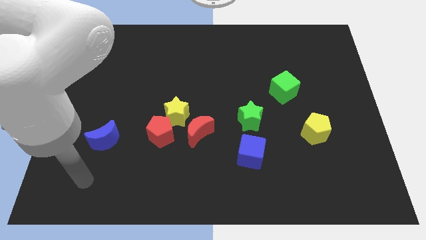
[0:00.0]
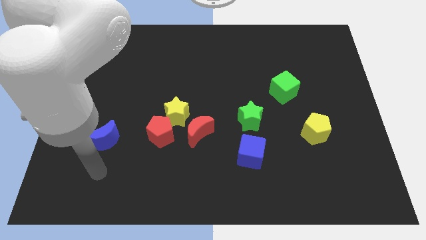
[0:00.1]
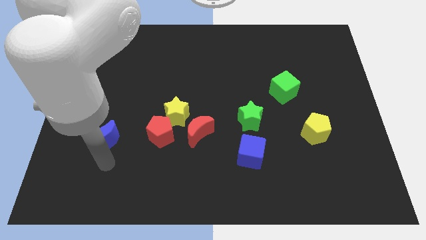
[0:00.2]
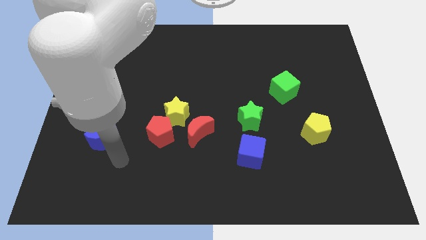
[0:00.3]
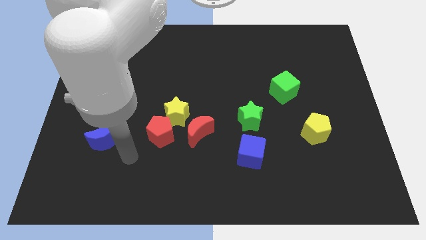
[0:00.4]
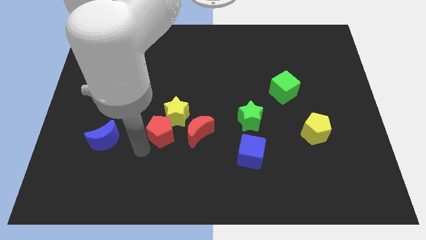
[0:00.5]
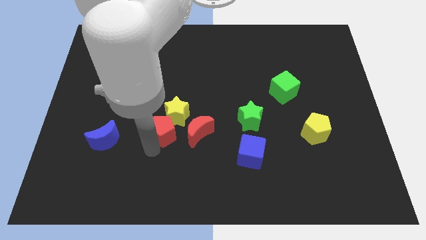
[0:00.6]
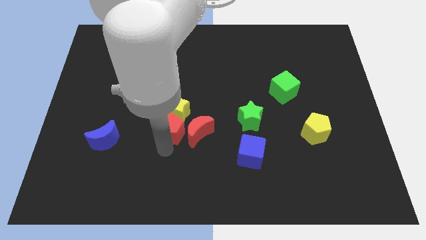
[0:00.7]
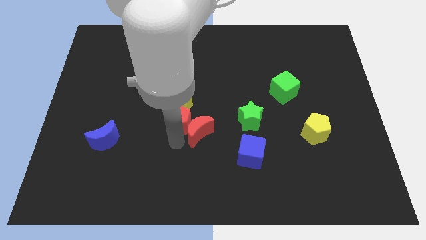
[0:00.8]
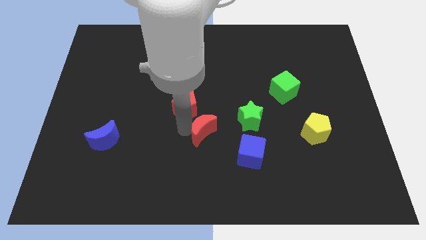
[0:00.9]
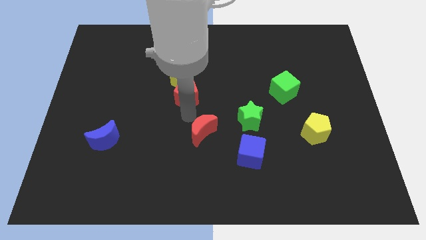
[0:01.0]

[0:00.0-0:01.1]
pull the yellow star apart from the red pentagon and red moon

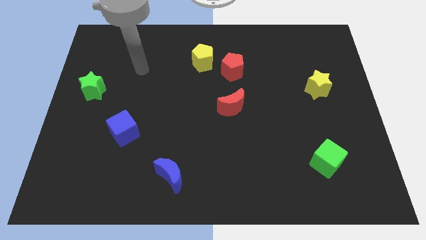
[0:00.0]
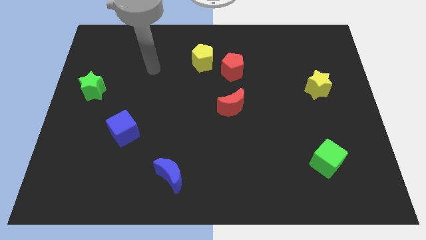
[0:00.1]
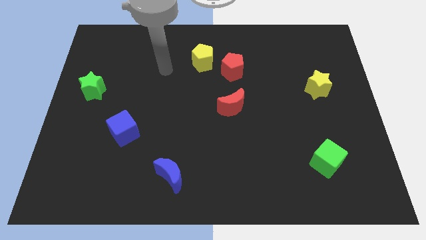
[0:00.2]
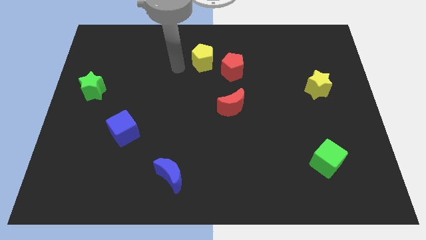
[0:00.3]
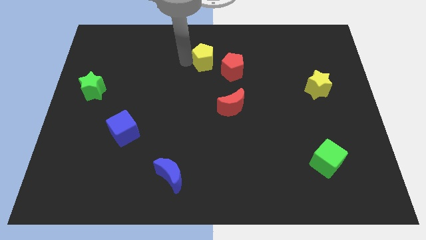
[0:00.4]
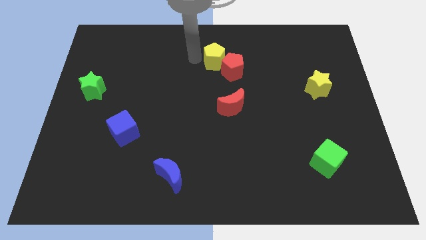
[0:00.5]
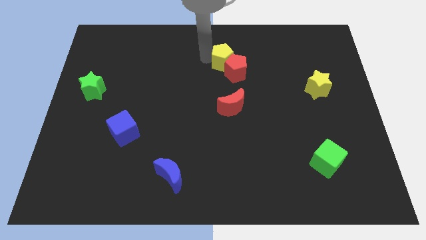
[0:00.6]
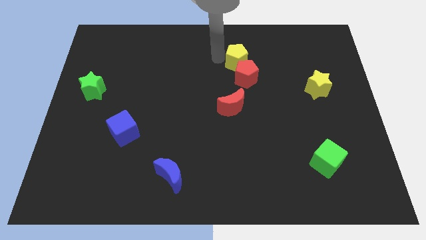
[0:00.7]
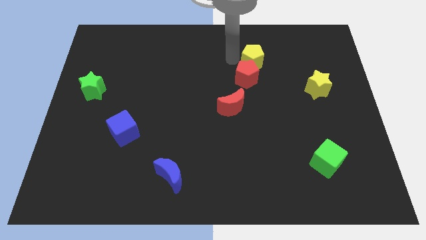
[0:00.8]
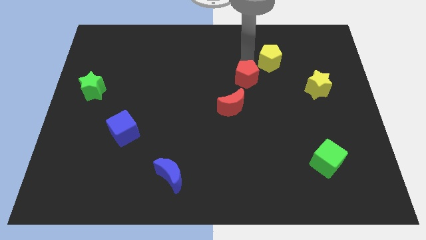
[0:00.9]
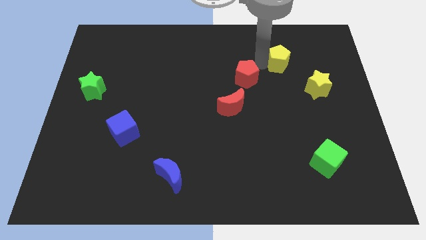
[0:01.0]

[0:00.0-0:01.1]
pull the red pentagon apart from the yellow pentagon

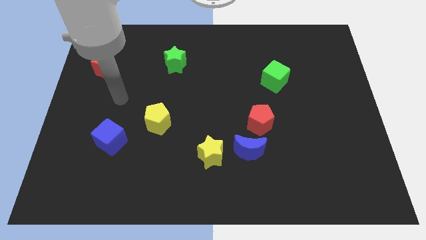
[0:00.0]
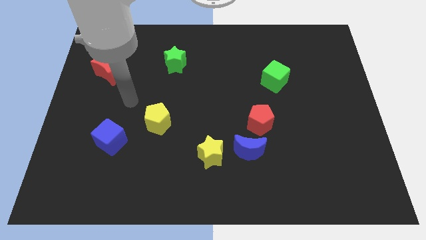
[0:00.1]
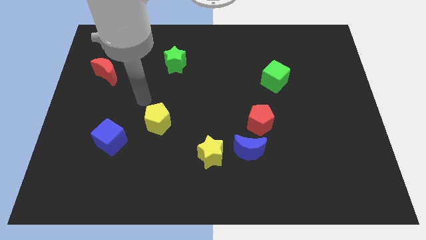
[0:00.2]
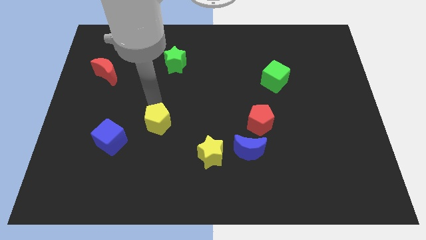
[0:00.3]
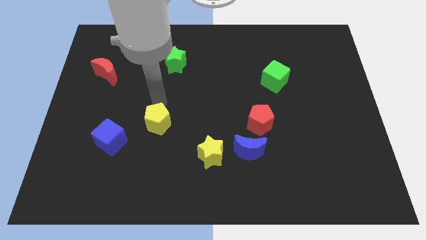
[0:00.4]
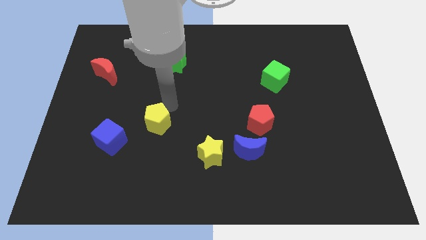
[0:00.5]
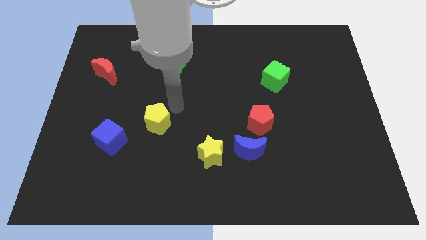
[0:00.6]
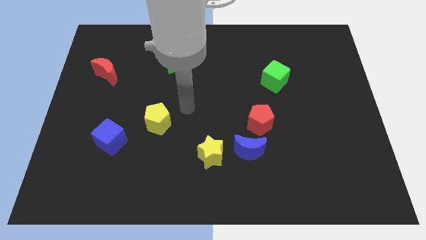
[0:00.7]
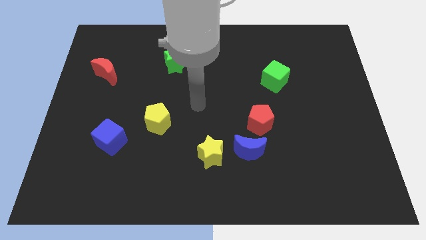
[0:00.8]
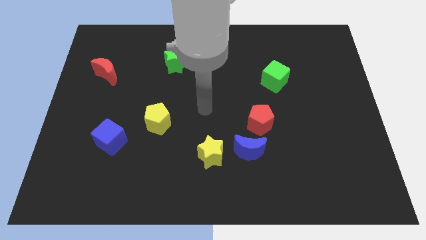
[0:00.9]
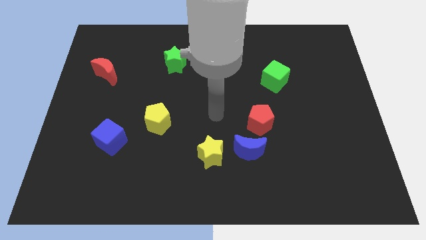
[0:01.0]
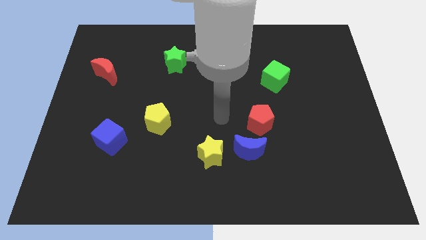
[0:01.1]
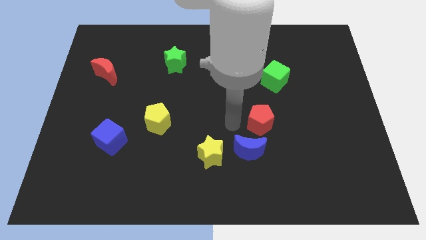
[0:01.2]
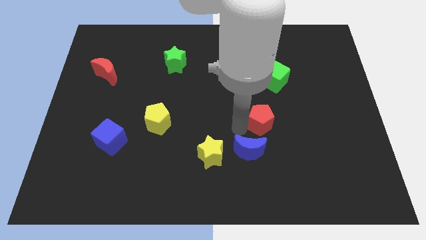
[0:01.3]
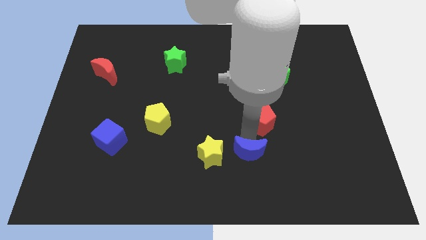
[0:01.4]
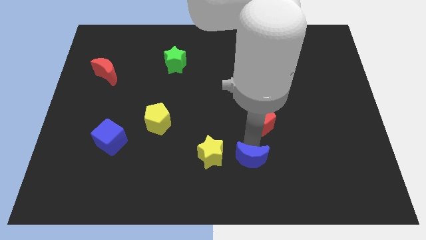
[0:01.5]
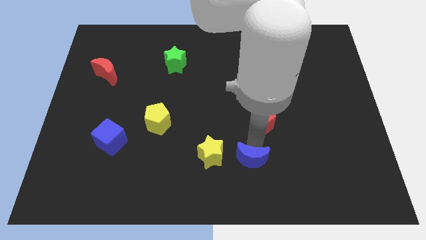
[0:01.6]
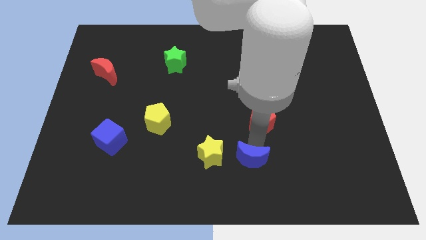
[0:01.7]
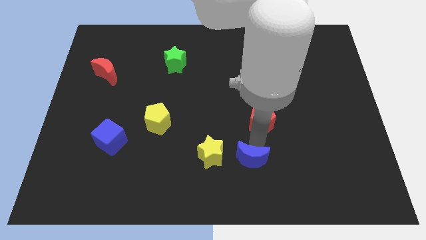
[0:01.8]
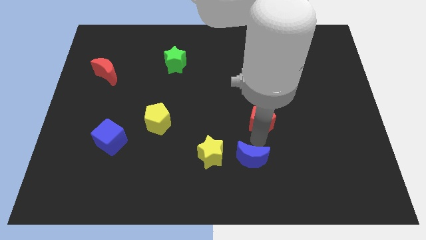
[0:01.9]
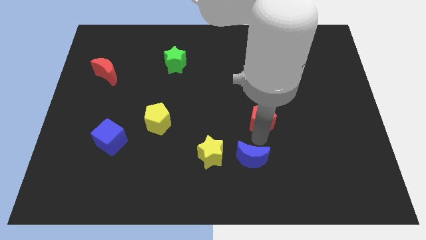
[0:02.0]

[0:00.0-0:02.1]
separate the red pentagon from the blue moon

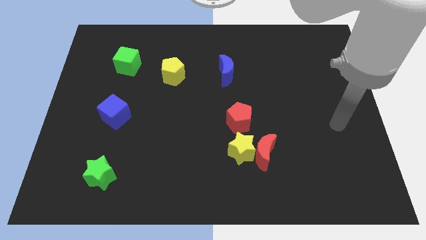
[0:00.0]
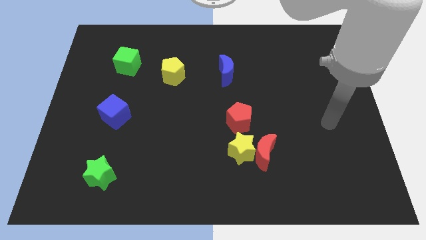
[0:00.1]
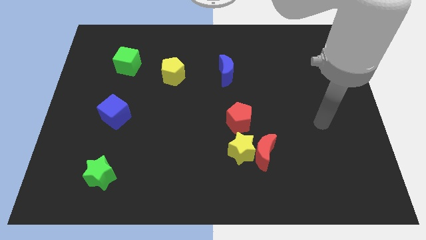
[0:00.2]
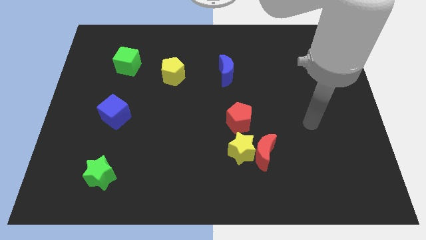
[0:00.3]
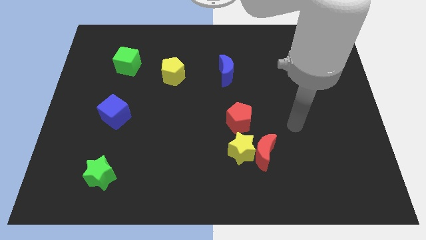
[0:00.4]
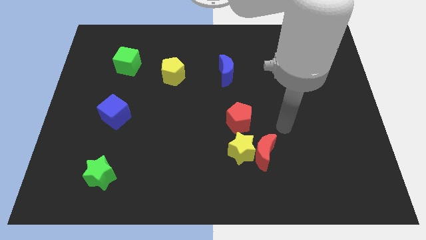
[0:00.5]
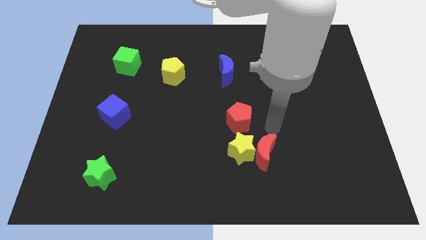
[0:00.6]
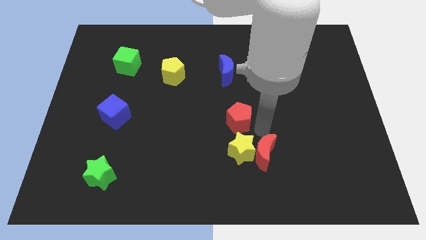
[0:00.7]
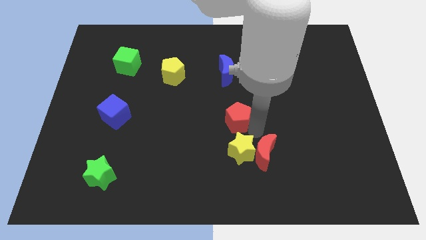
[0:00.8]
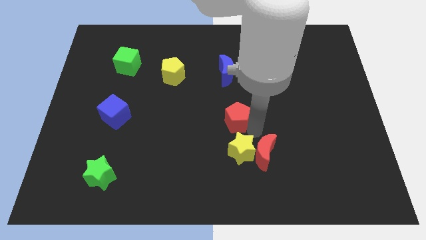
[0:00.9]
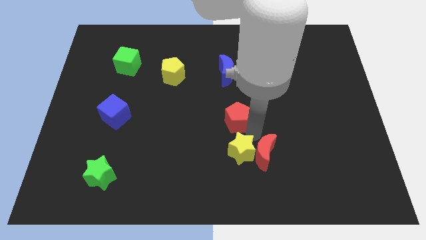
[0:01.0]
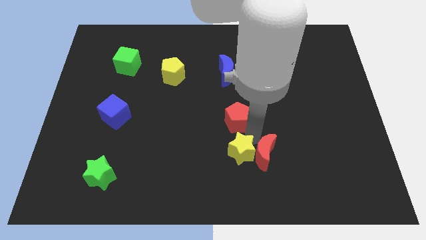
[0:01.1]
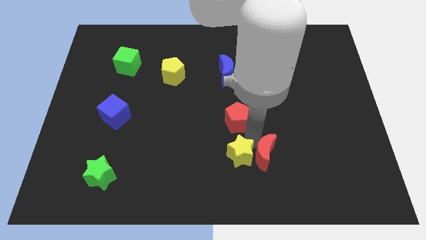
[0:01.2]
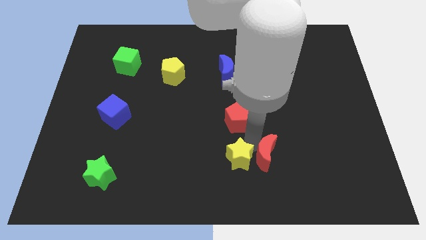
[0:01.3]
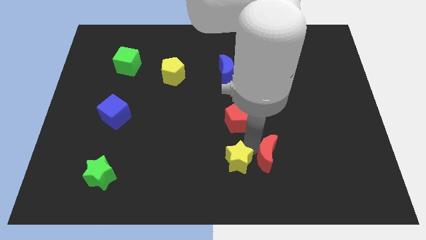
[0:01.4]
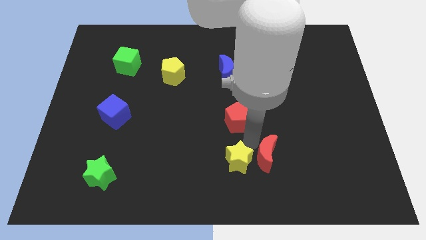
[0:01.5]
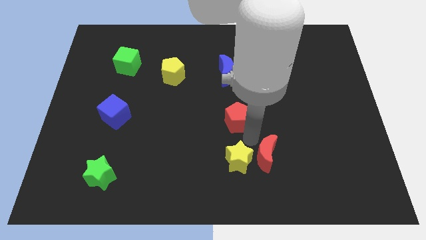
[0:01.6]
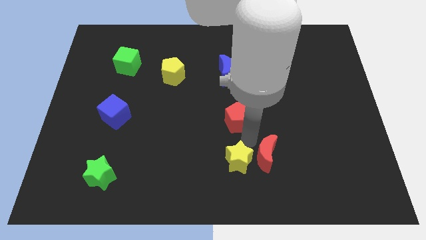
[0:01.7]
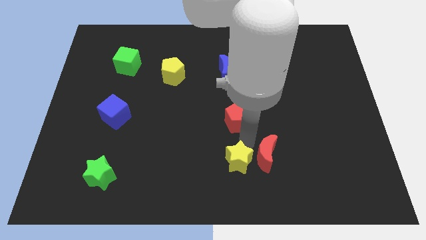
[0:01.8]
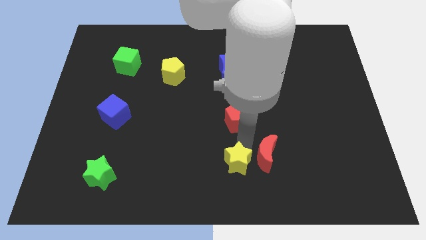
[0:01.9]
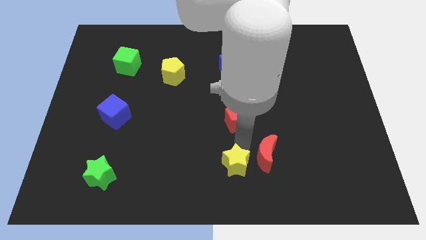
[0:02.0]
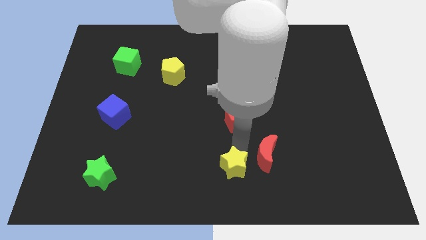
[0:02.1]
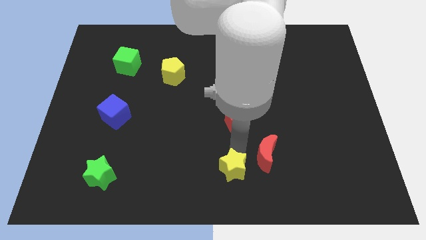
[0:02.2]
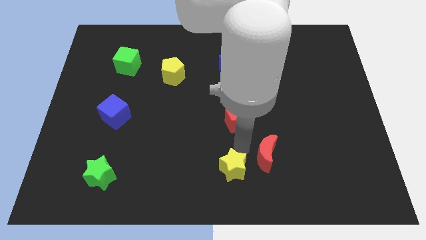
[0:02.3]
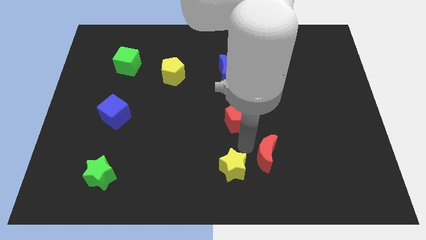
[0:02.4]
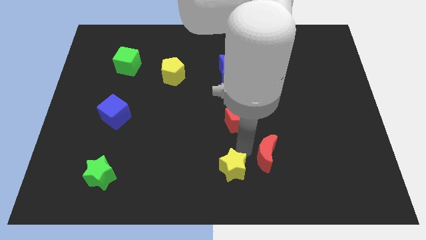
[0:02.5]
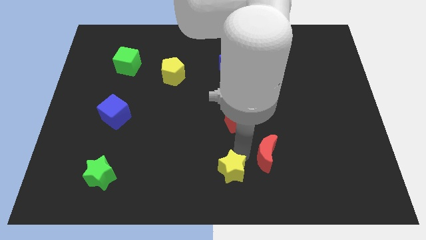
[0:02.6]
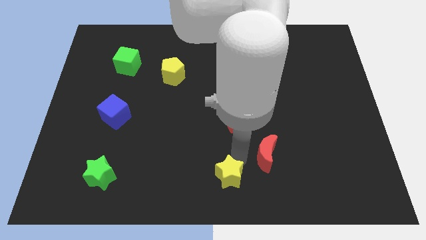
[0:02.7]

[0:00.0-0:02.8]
separate the yellow star from the red moon and red pentagon

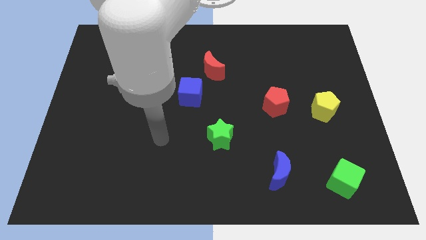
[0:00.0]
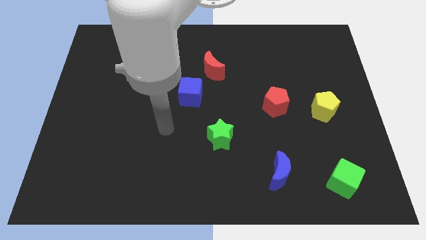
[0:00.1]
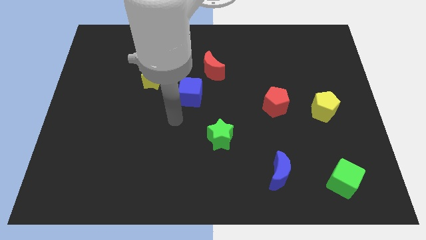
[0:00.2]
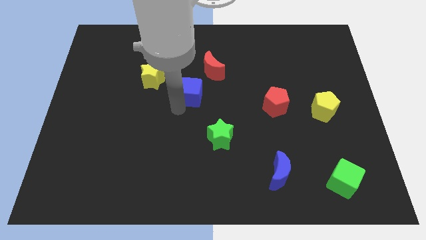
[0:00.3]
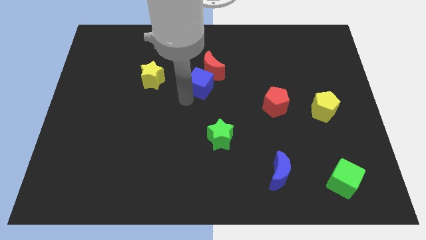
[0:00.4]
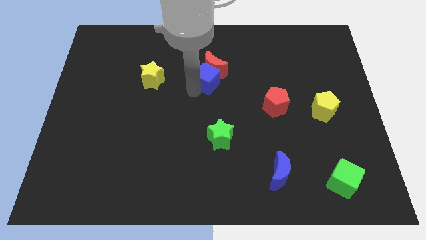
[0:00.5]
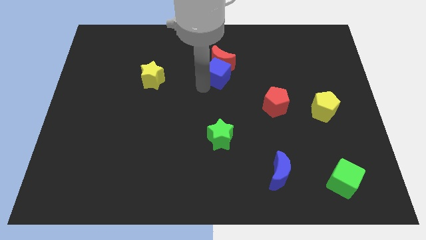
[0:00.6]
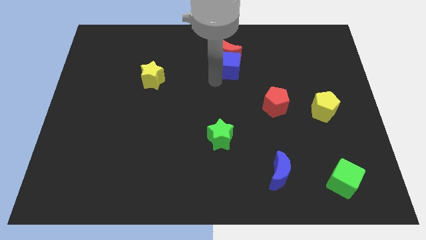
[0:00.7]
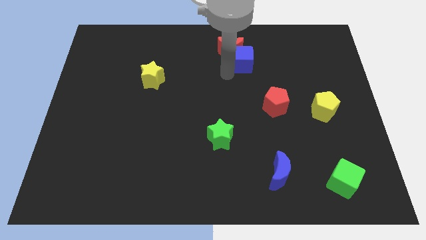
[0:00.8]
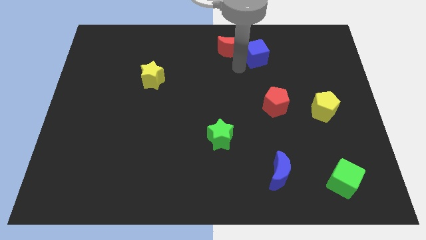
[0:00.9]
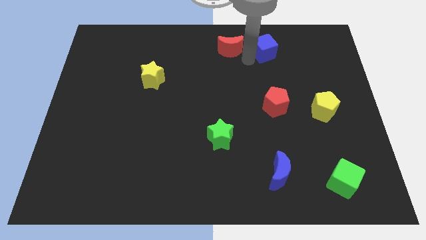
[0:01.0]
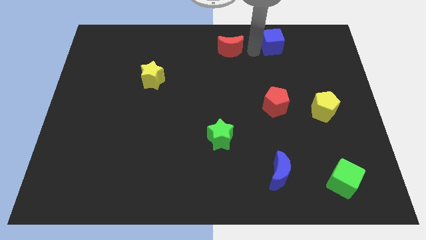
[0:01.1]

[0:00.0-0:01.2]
separate the red moon from the blue cube

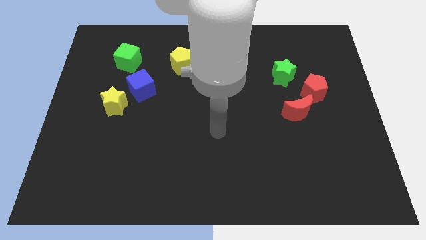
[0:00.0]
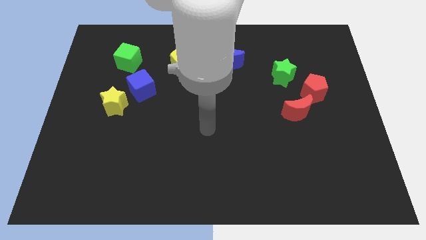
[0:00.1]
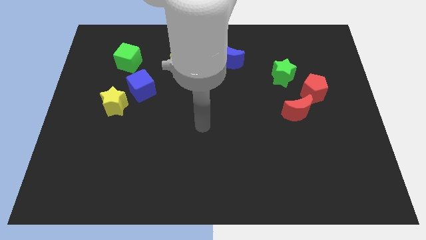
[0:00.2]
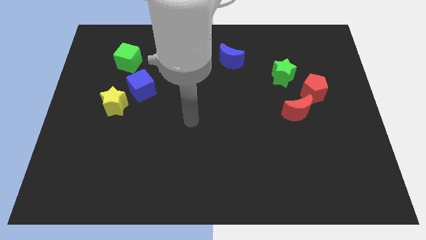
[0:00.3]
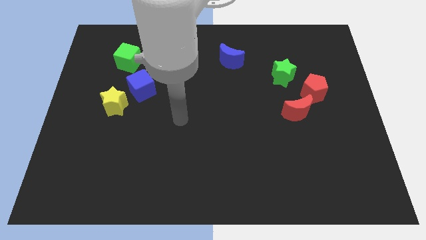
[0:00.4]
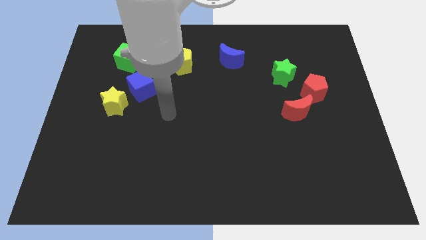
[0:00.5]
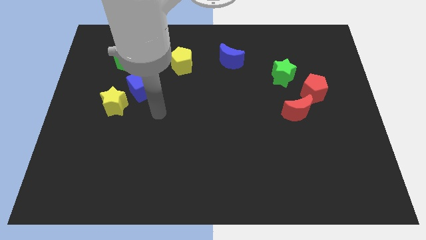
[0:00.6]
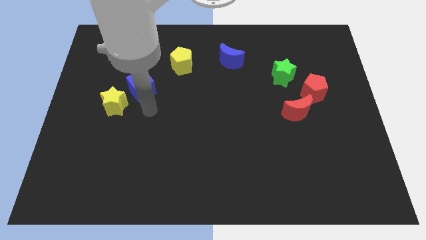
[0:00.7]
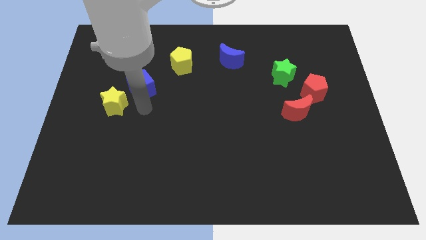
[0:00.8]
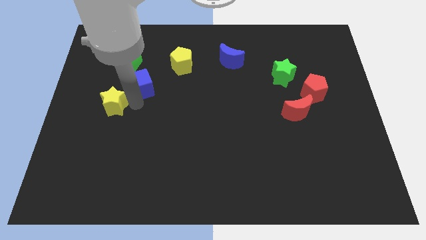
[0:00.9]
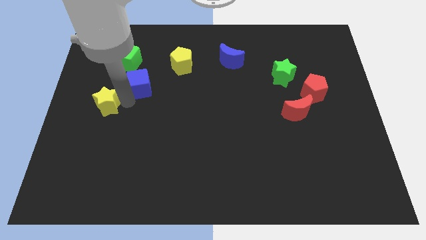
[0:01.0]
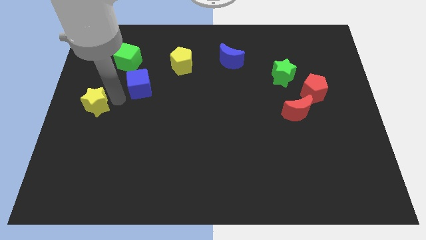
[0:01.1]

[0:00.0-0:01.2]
separate the blue cube from the yellow star
